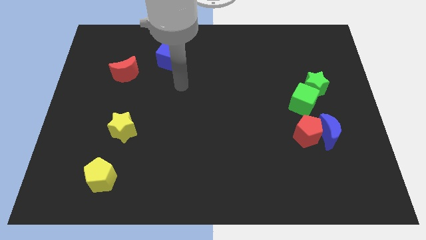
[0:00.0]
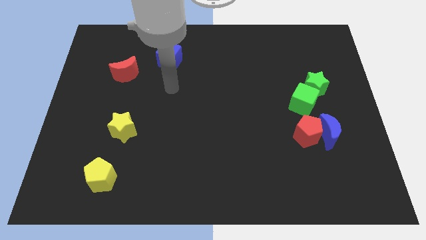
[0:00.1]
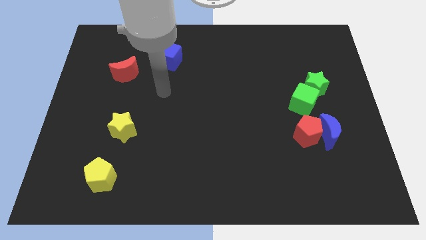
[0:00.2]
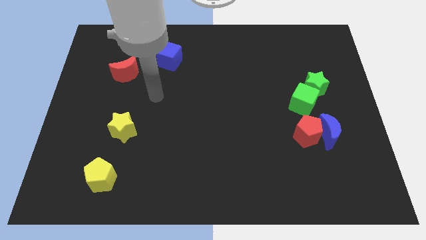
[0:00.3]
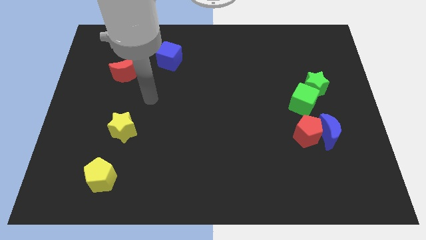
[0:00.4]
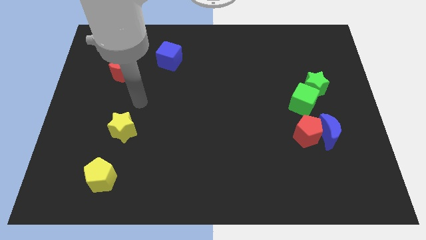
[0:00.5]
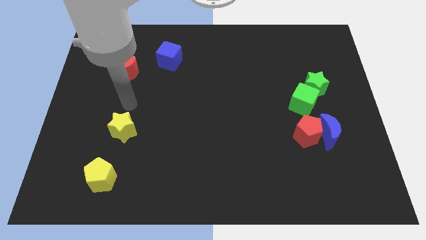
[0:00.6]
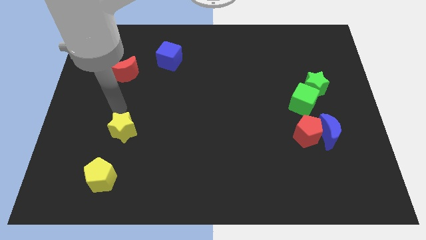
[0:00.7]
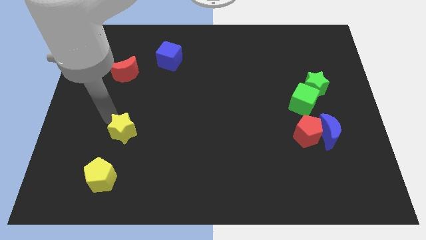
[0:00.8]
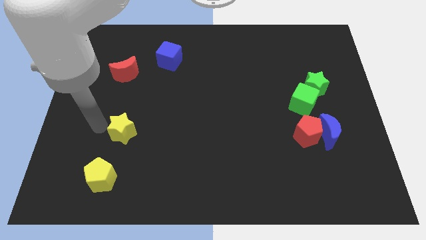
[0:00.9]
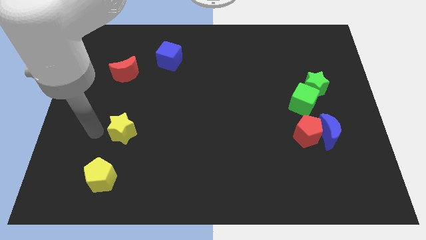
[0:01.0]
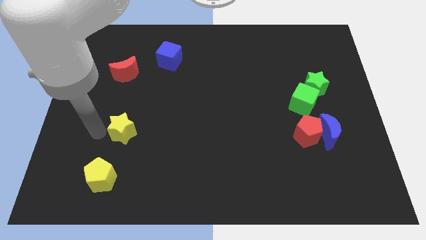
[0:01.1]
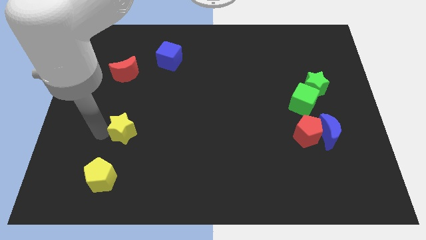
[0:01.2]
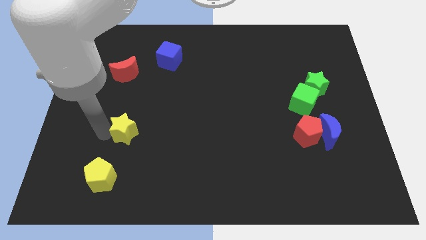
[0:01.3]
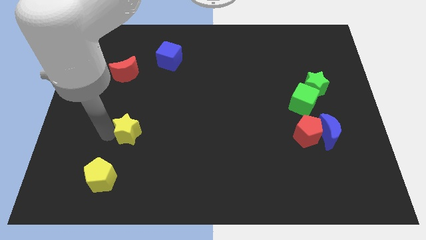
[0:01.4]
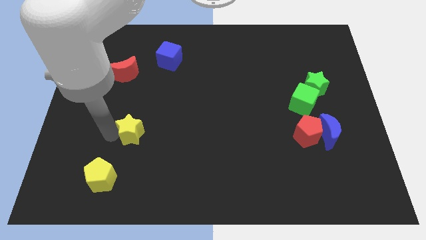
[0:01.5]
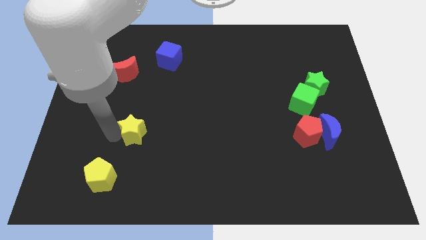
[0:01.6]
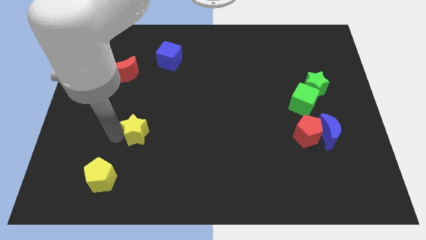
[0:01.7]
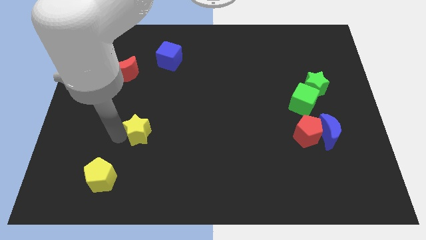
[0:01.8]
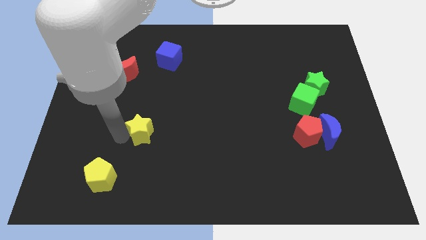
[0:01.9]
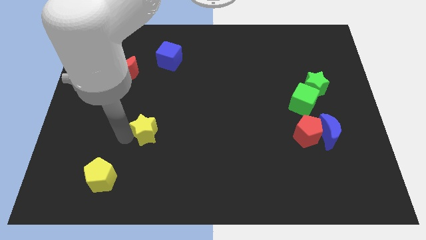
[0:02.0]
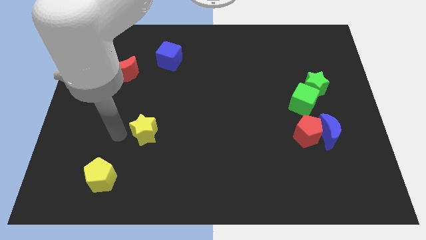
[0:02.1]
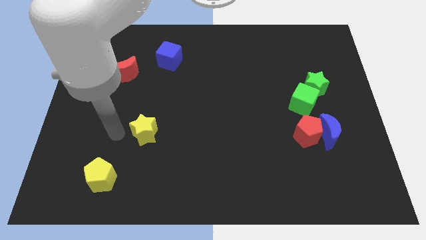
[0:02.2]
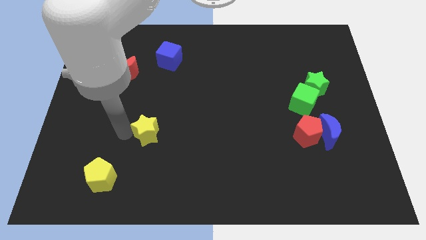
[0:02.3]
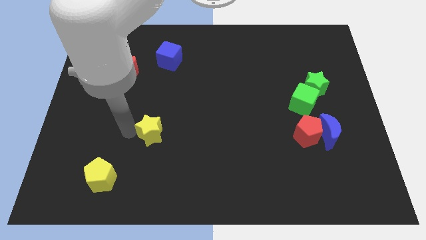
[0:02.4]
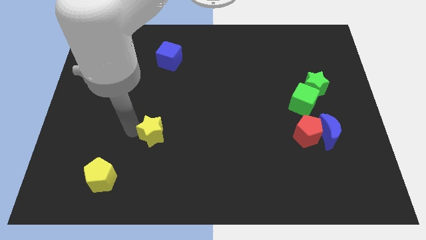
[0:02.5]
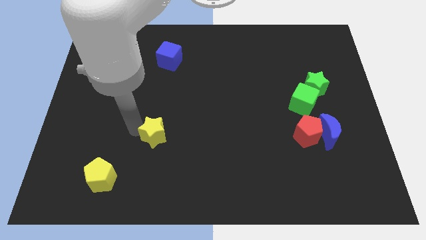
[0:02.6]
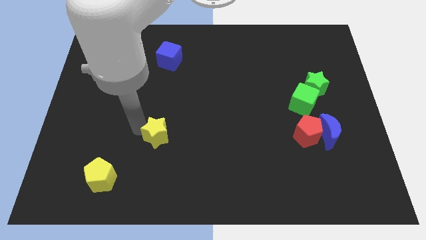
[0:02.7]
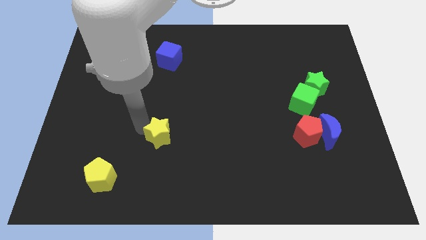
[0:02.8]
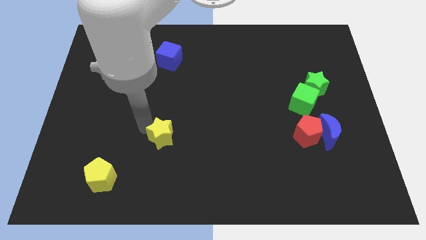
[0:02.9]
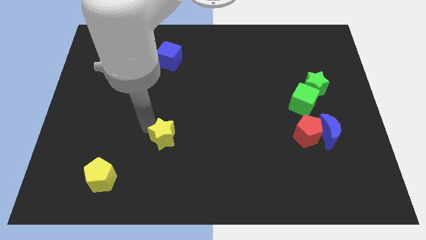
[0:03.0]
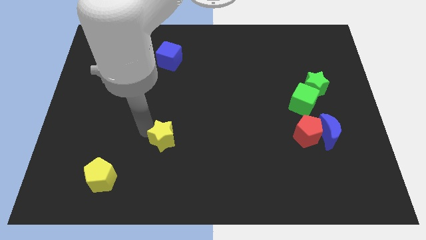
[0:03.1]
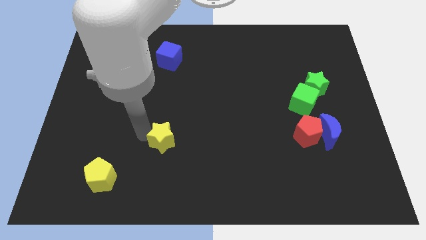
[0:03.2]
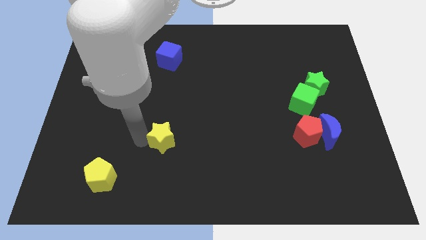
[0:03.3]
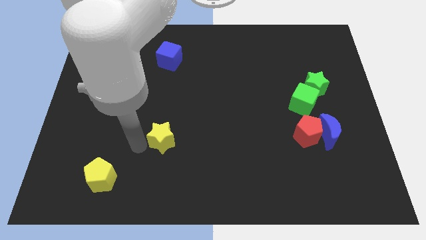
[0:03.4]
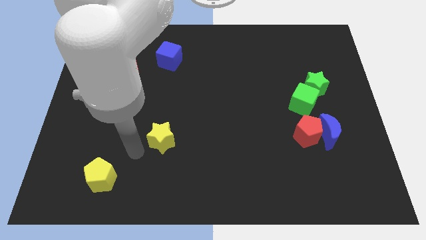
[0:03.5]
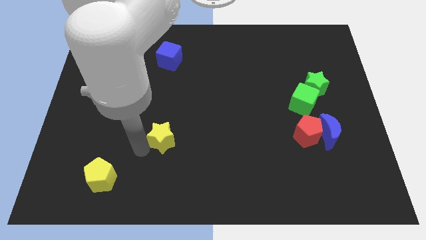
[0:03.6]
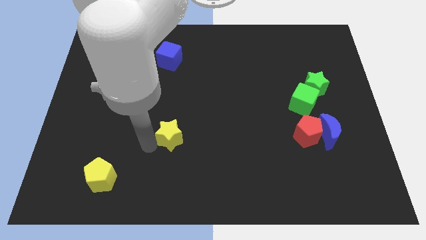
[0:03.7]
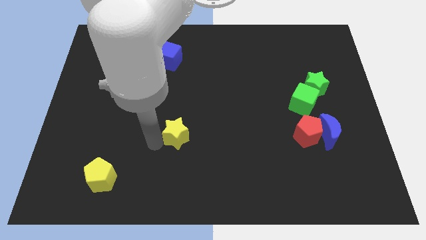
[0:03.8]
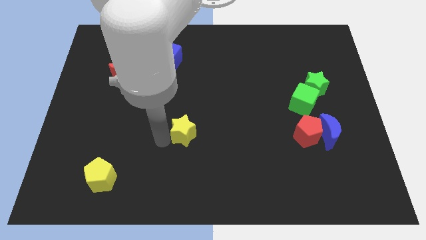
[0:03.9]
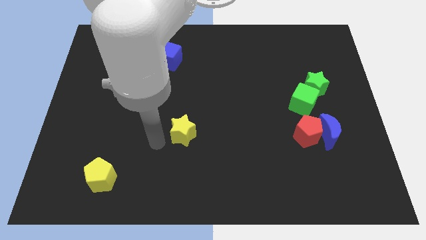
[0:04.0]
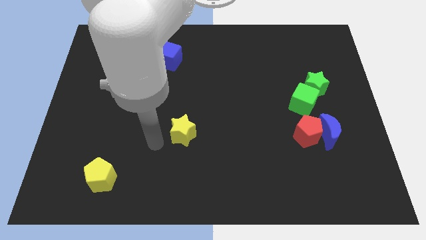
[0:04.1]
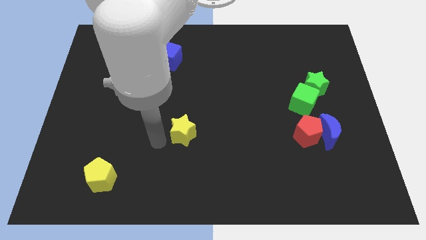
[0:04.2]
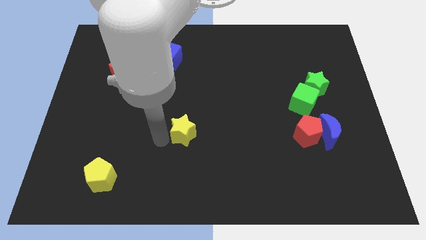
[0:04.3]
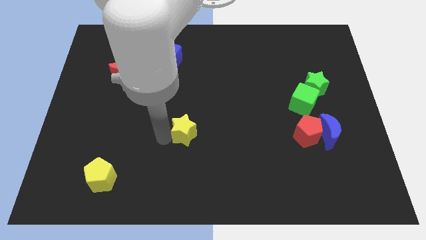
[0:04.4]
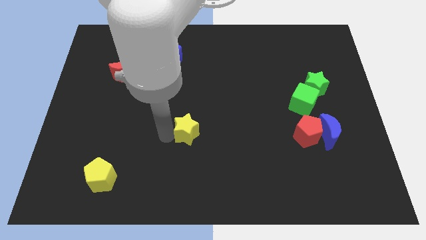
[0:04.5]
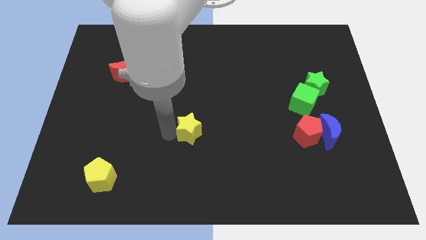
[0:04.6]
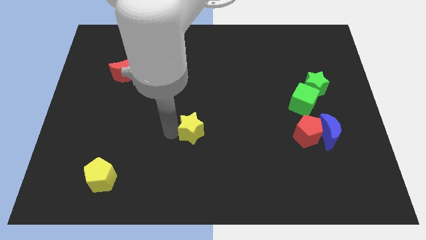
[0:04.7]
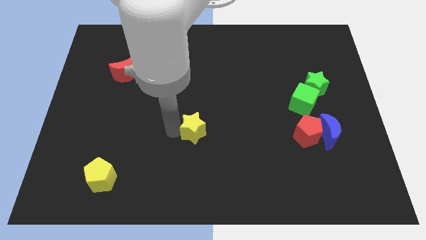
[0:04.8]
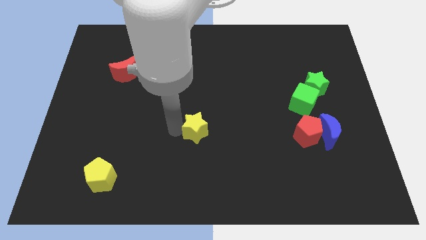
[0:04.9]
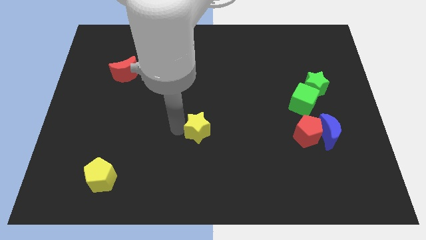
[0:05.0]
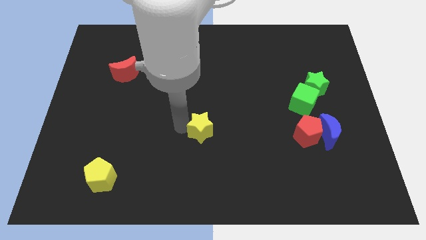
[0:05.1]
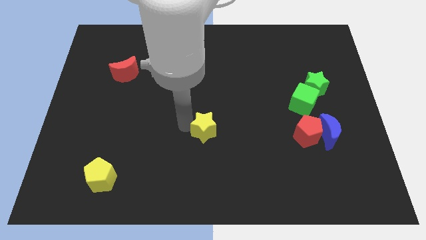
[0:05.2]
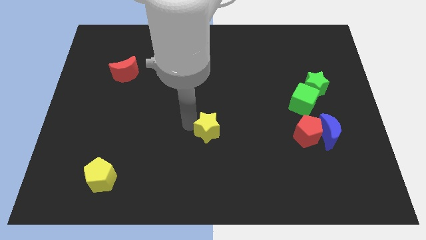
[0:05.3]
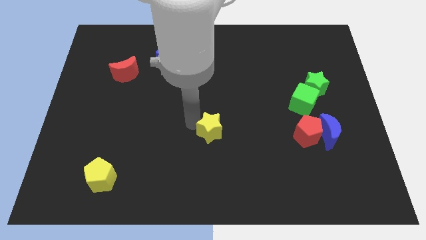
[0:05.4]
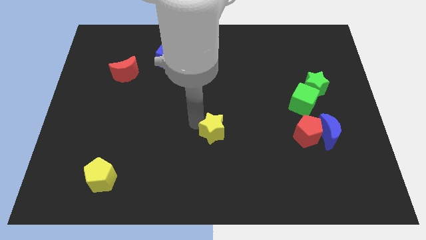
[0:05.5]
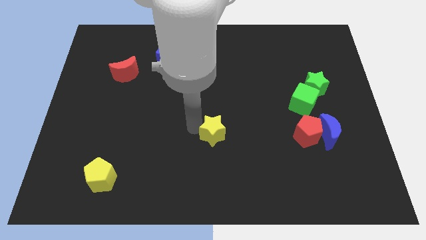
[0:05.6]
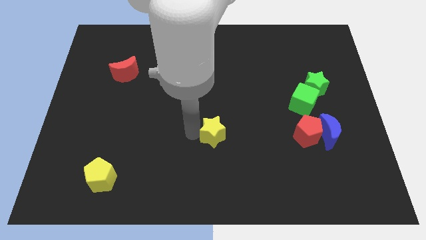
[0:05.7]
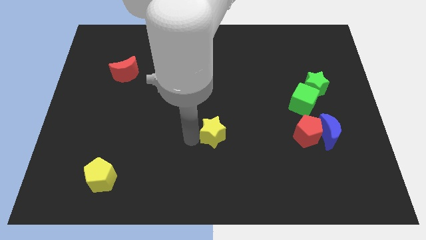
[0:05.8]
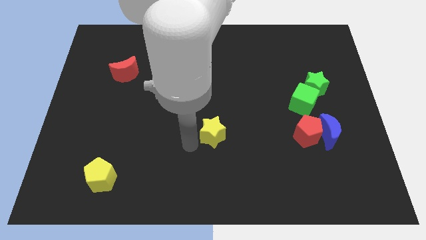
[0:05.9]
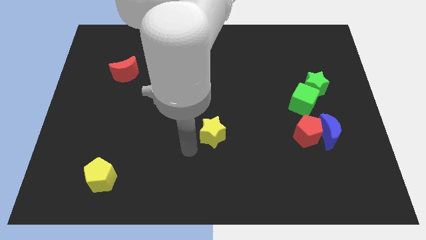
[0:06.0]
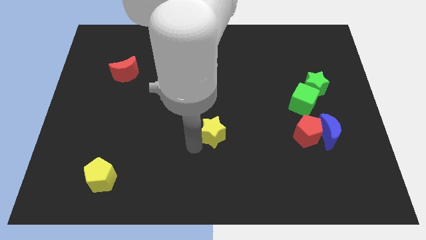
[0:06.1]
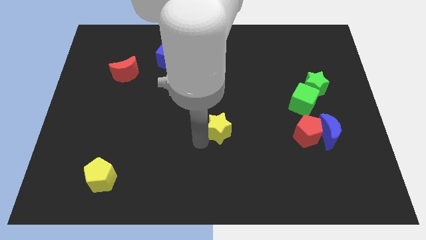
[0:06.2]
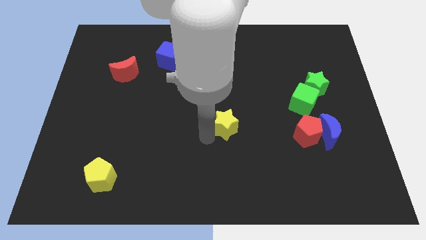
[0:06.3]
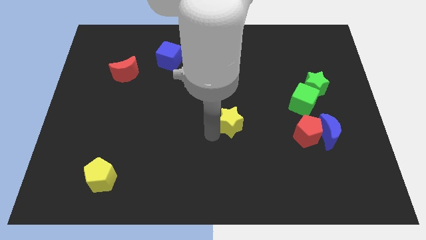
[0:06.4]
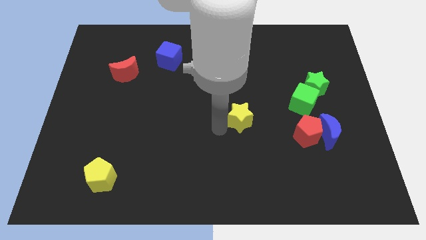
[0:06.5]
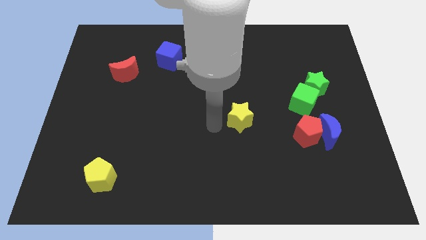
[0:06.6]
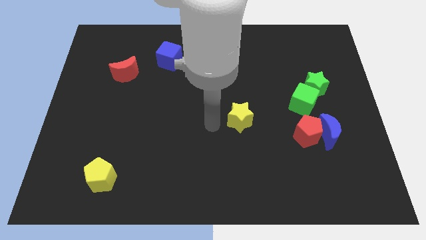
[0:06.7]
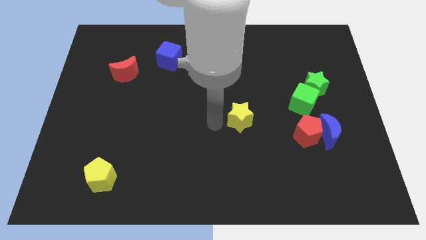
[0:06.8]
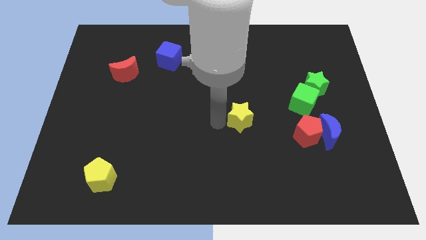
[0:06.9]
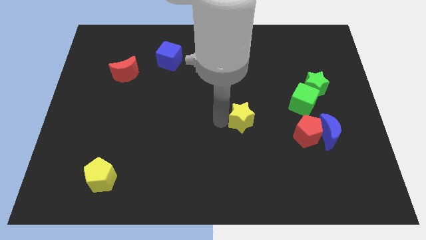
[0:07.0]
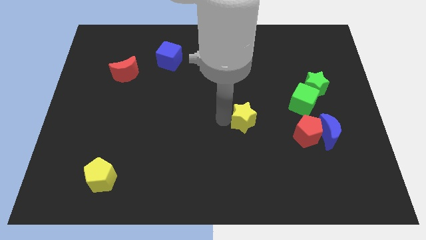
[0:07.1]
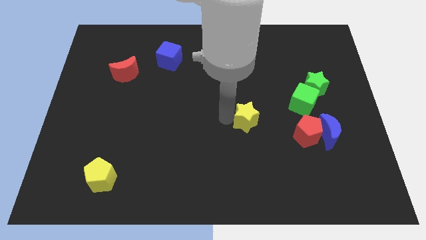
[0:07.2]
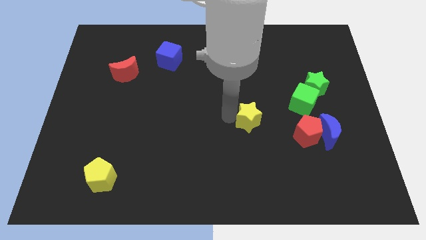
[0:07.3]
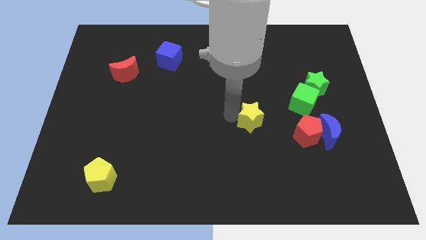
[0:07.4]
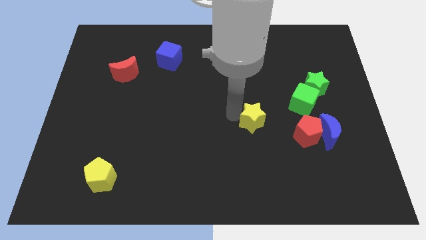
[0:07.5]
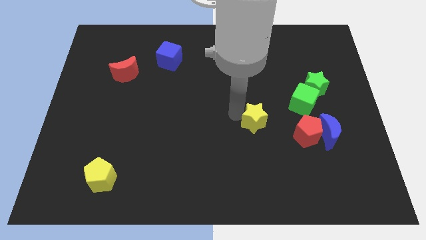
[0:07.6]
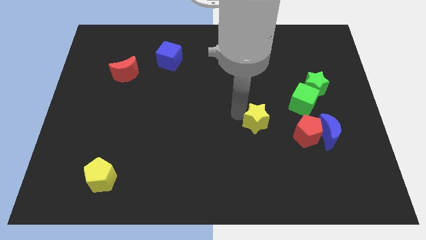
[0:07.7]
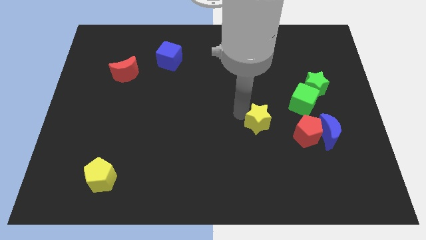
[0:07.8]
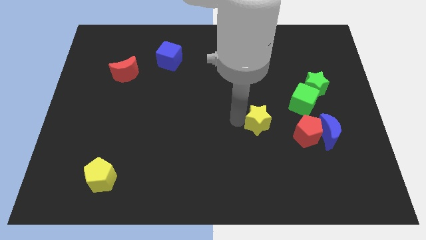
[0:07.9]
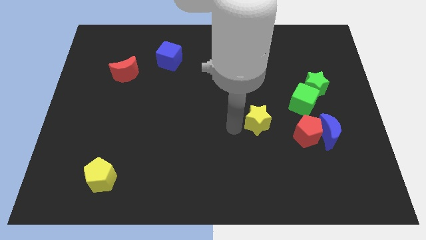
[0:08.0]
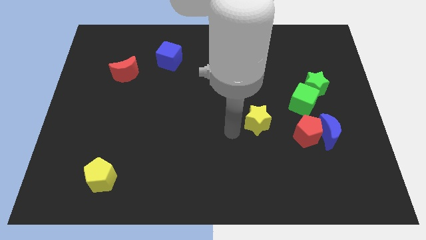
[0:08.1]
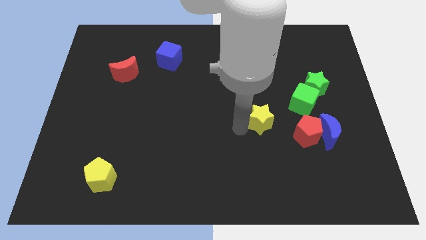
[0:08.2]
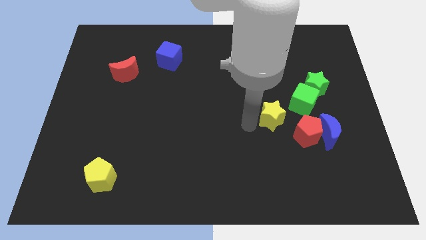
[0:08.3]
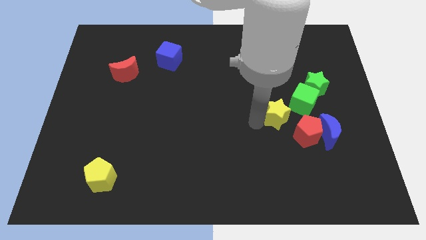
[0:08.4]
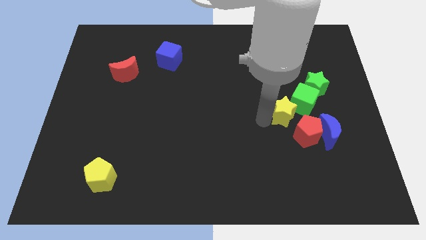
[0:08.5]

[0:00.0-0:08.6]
move the yellow star diagonally down and to the left of the green star
